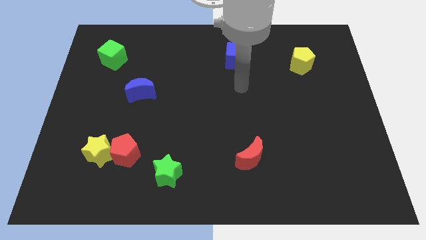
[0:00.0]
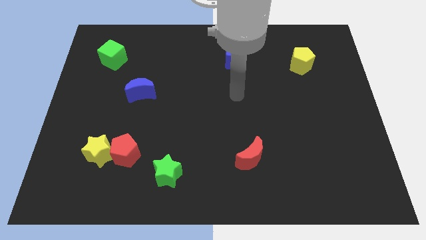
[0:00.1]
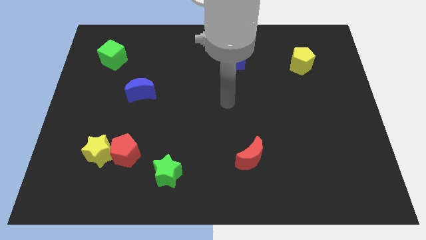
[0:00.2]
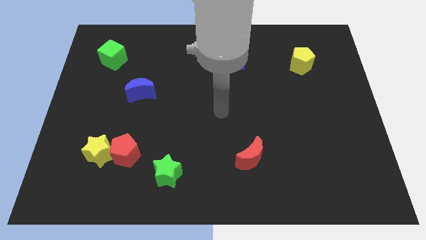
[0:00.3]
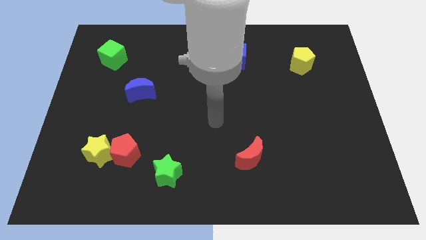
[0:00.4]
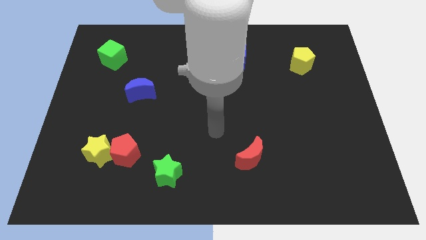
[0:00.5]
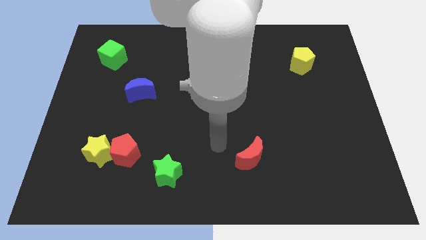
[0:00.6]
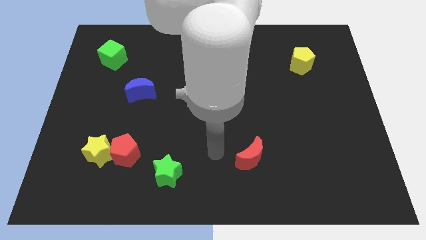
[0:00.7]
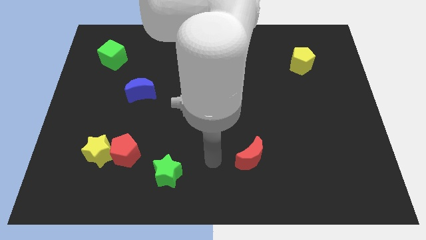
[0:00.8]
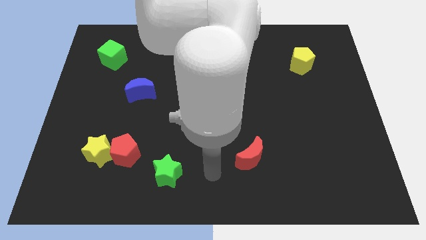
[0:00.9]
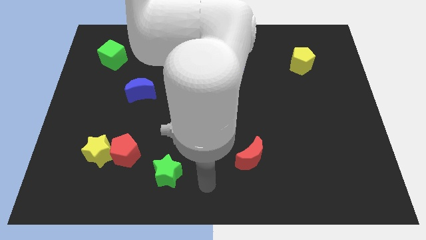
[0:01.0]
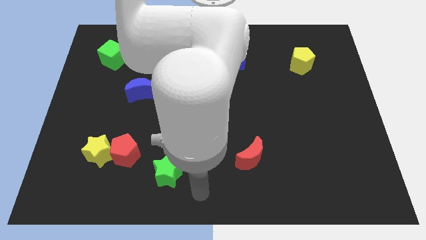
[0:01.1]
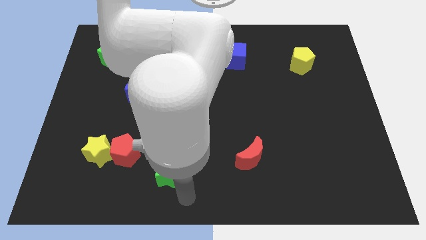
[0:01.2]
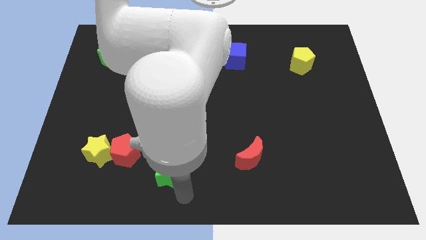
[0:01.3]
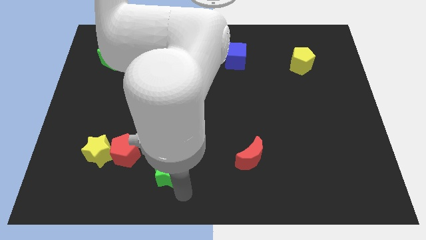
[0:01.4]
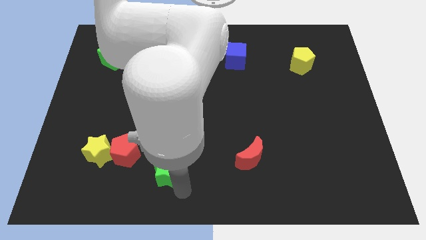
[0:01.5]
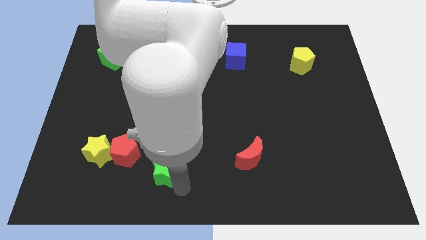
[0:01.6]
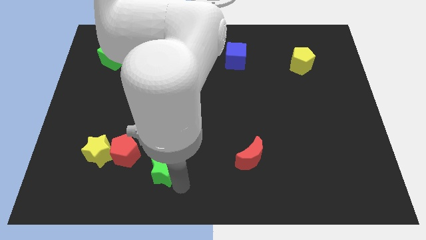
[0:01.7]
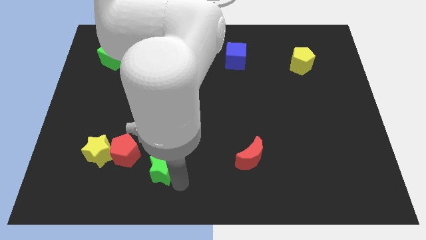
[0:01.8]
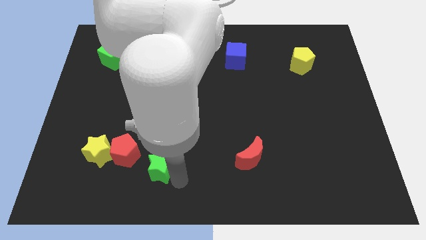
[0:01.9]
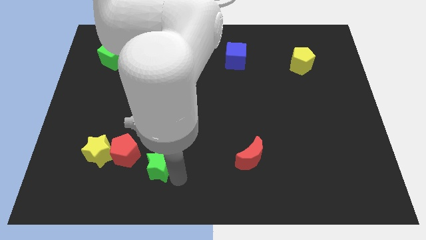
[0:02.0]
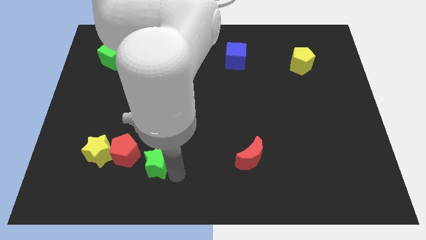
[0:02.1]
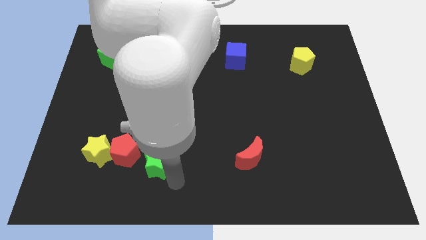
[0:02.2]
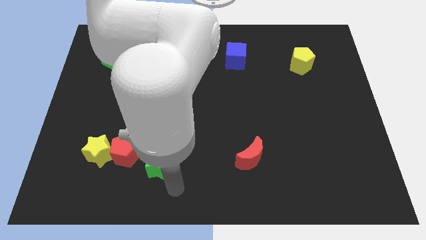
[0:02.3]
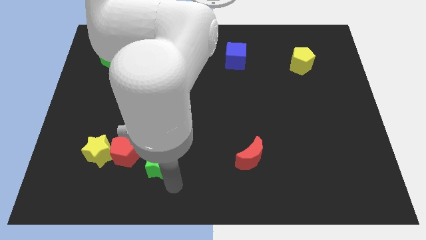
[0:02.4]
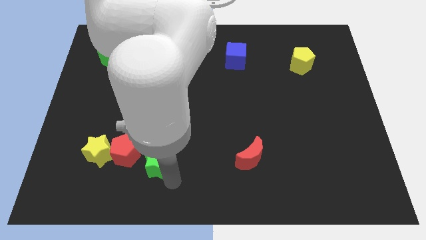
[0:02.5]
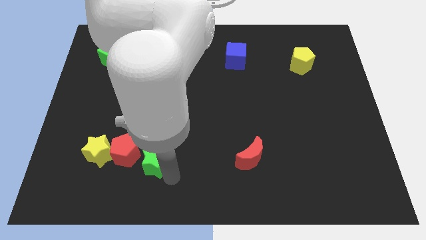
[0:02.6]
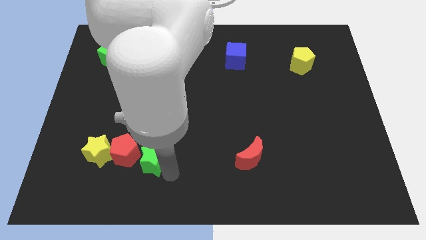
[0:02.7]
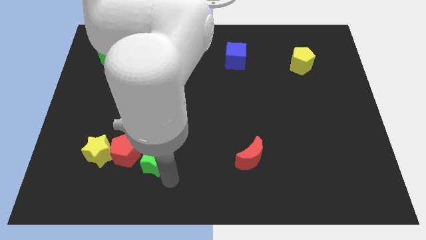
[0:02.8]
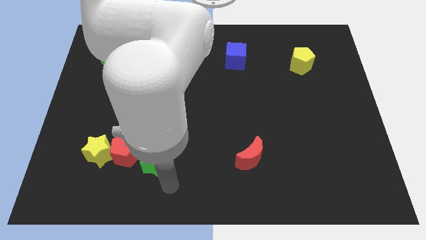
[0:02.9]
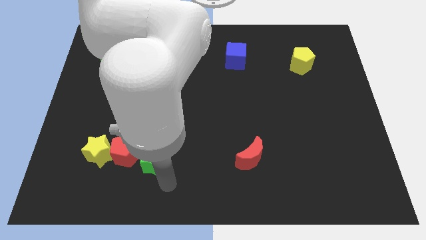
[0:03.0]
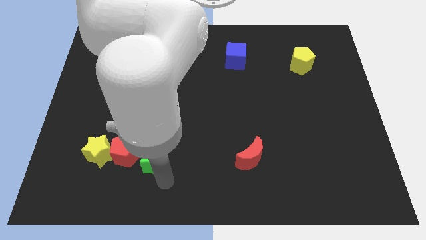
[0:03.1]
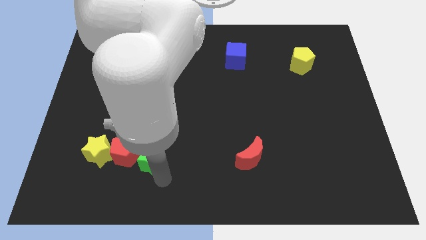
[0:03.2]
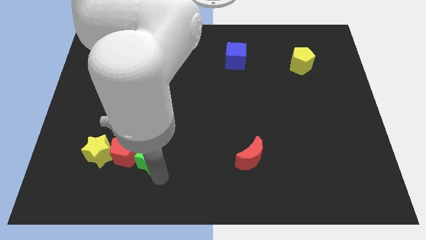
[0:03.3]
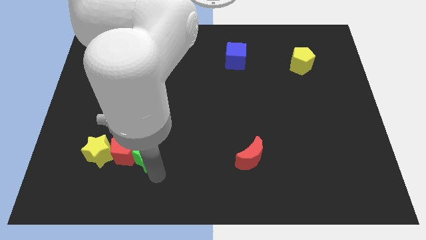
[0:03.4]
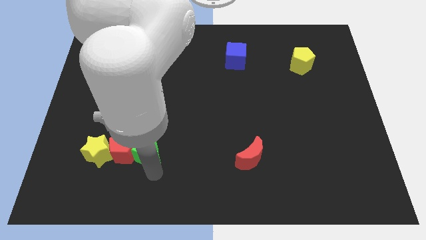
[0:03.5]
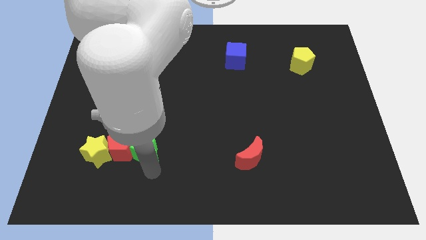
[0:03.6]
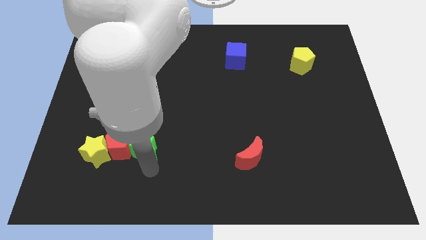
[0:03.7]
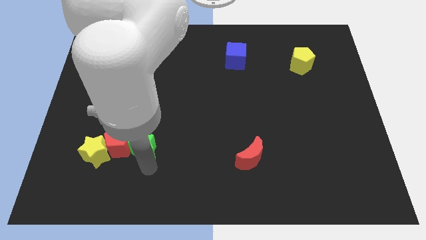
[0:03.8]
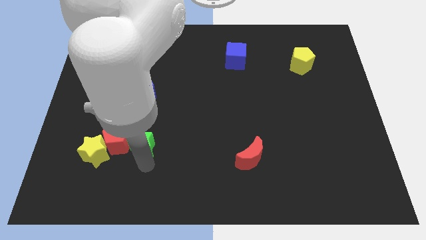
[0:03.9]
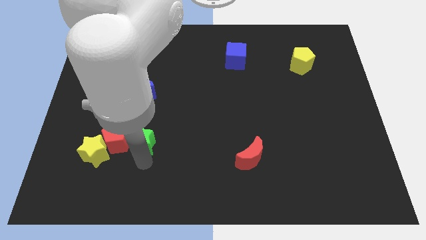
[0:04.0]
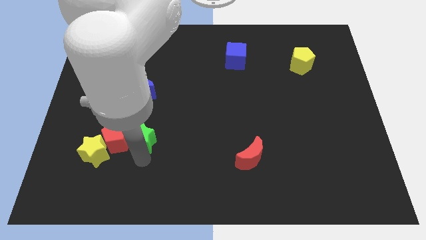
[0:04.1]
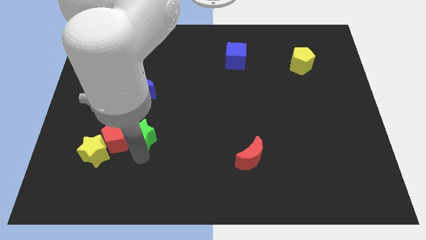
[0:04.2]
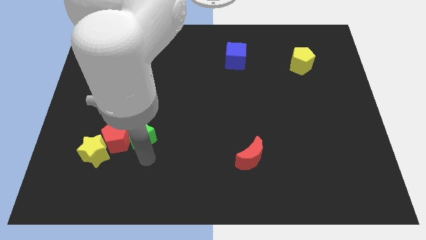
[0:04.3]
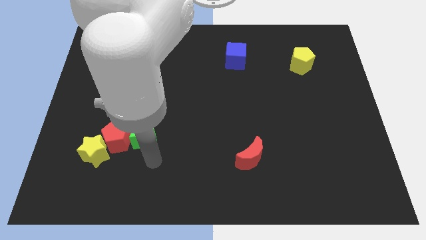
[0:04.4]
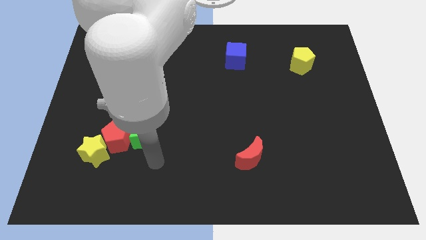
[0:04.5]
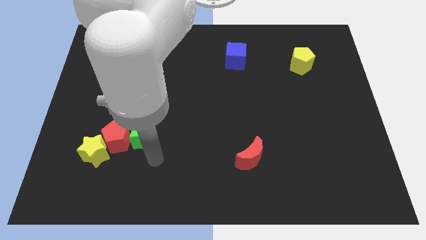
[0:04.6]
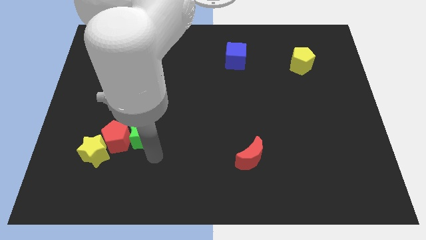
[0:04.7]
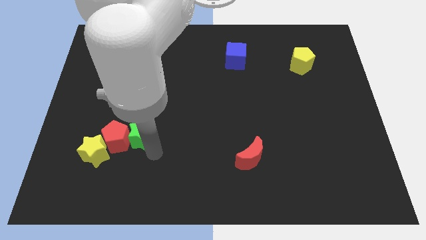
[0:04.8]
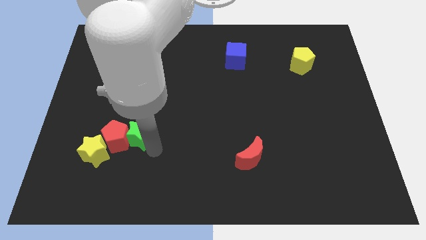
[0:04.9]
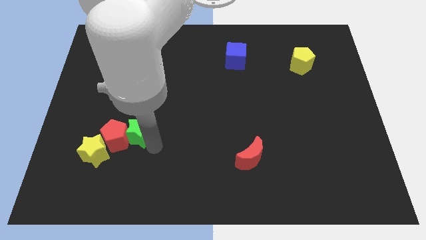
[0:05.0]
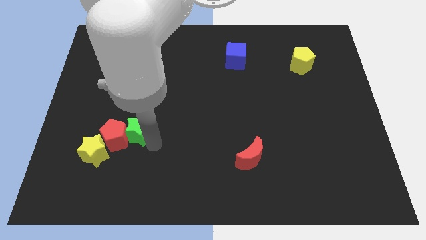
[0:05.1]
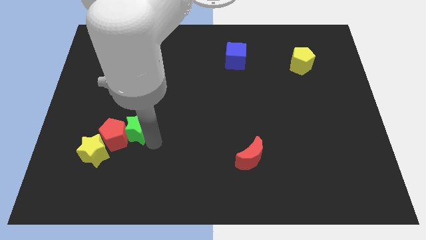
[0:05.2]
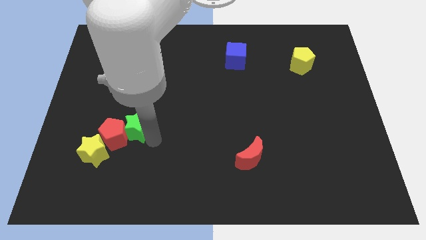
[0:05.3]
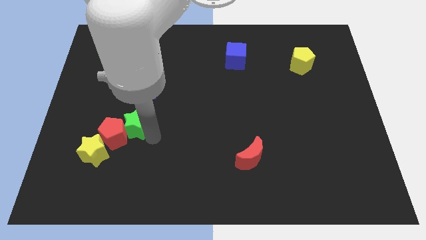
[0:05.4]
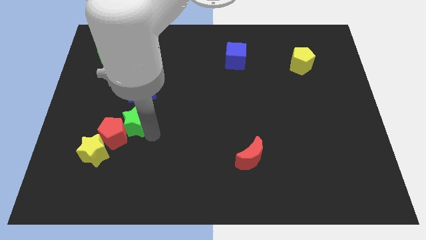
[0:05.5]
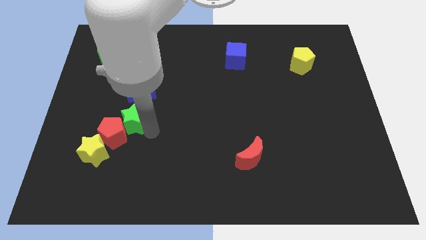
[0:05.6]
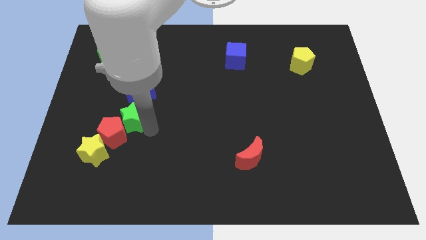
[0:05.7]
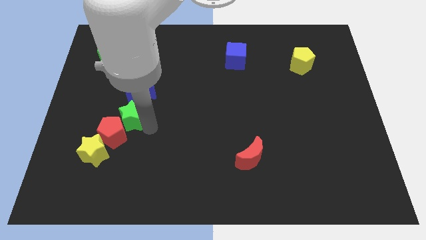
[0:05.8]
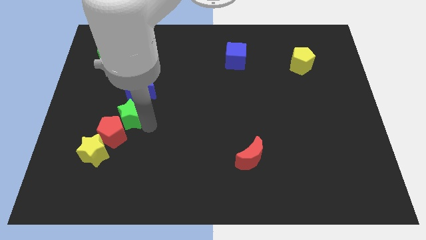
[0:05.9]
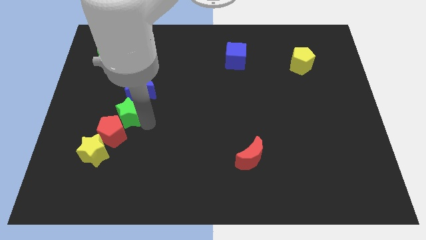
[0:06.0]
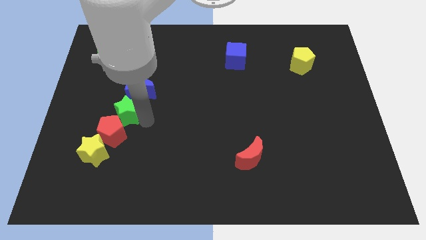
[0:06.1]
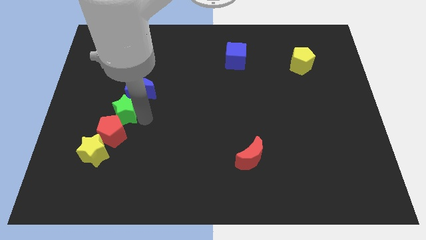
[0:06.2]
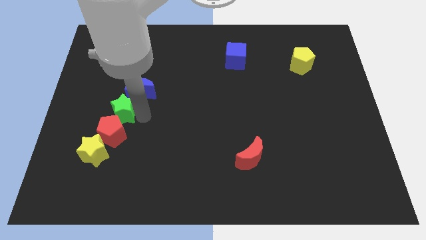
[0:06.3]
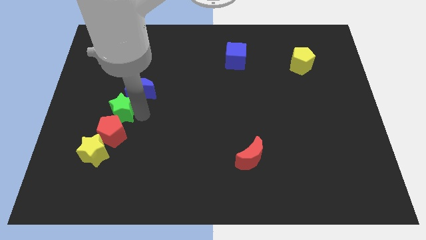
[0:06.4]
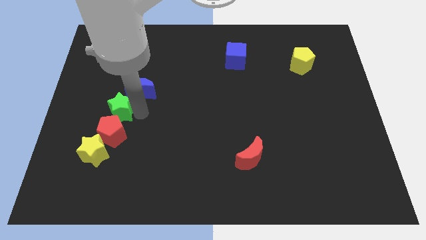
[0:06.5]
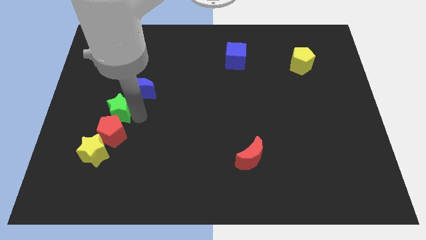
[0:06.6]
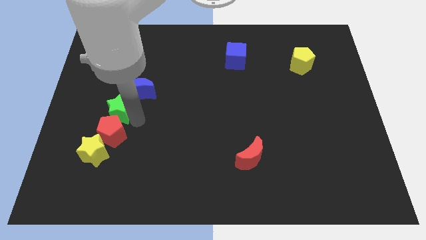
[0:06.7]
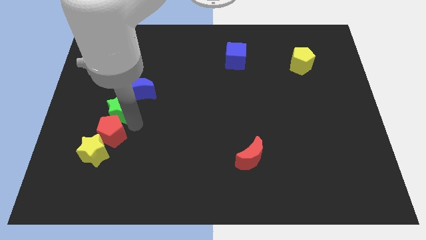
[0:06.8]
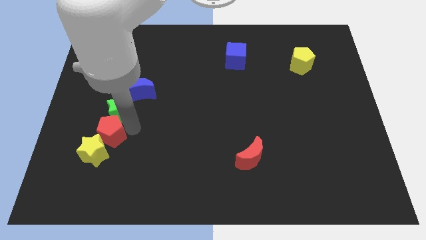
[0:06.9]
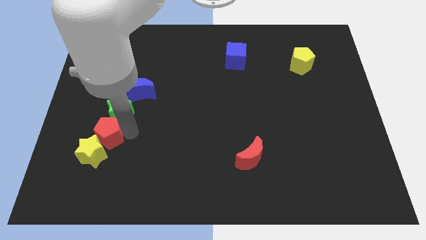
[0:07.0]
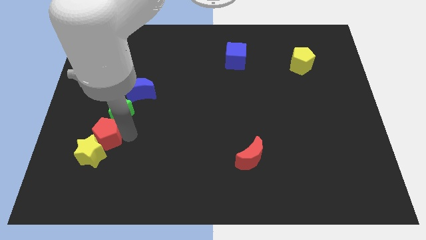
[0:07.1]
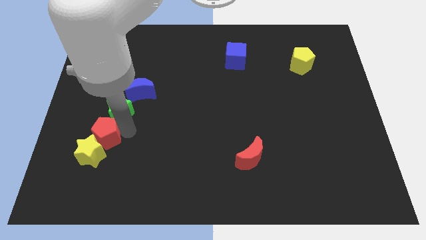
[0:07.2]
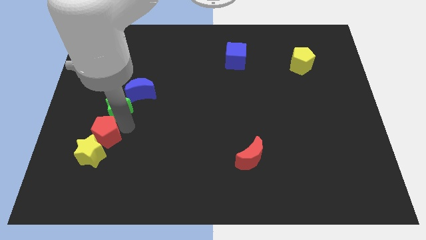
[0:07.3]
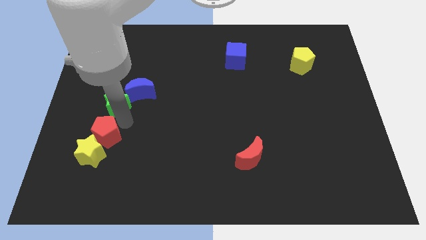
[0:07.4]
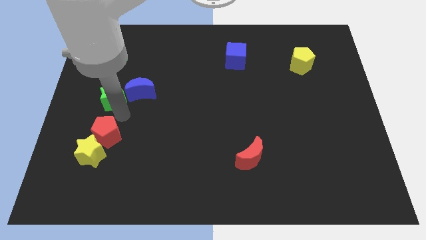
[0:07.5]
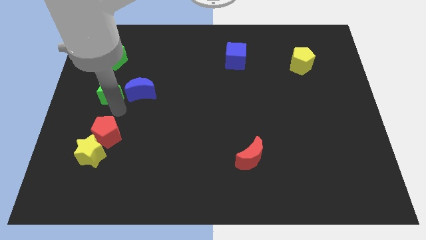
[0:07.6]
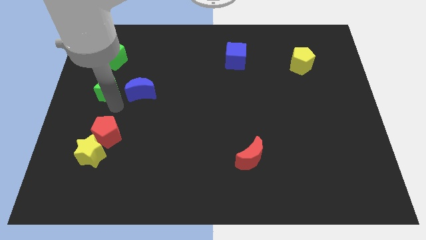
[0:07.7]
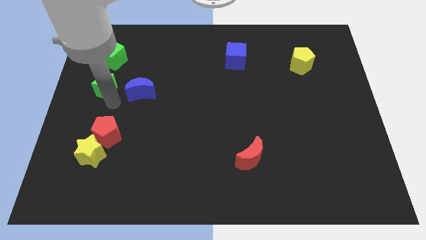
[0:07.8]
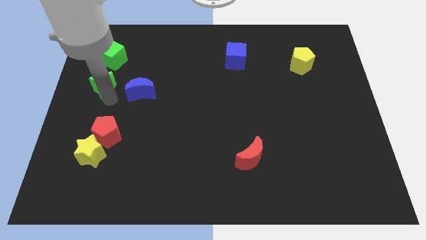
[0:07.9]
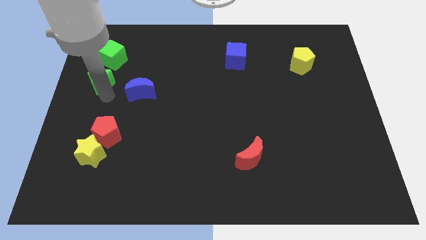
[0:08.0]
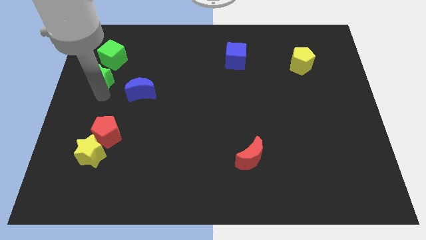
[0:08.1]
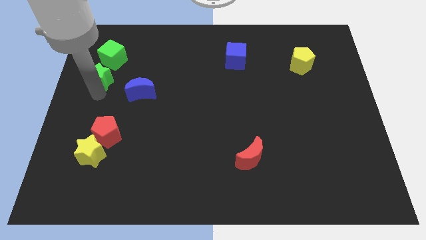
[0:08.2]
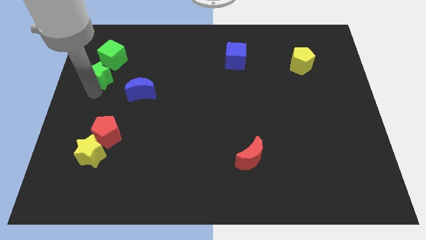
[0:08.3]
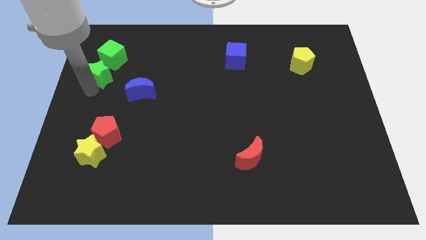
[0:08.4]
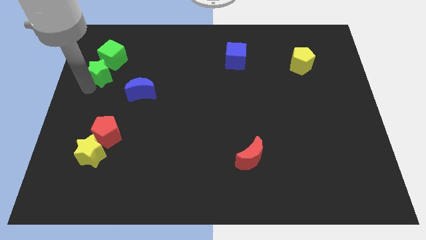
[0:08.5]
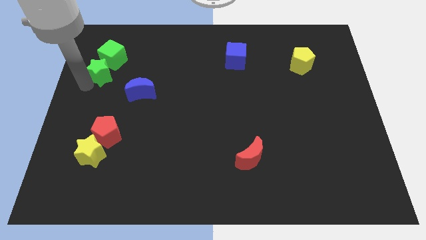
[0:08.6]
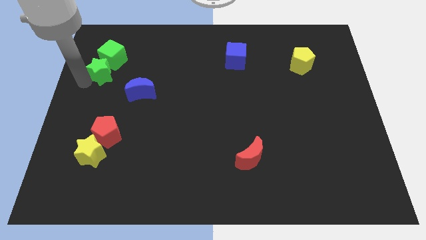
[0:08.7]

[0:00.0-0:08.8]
push the green star close to the green cube
